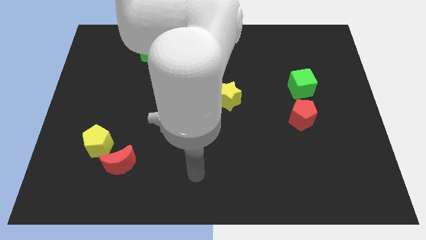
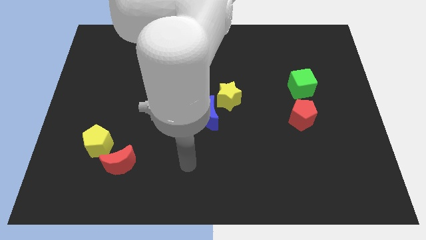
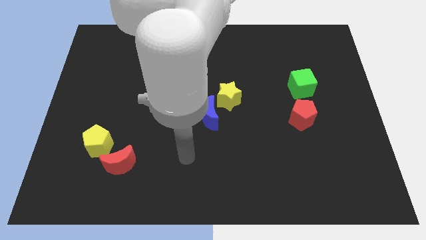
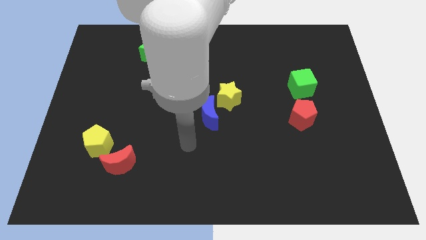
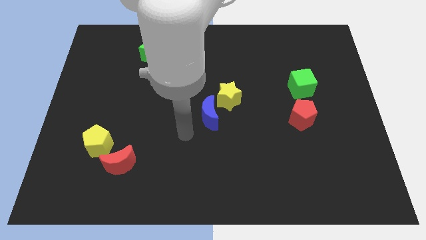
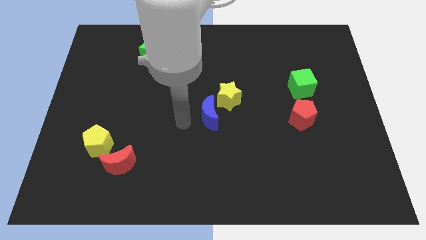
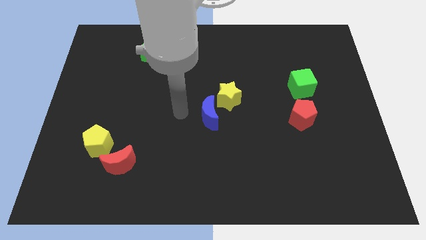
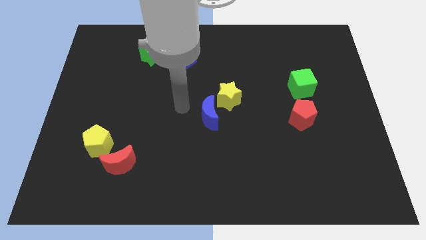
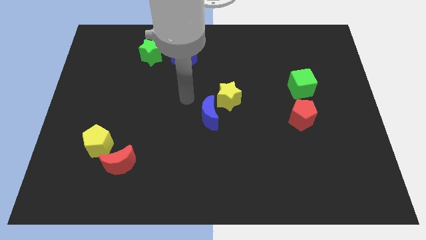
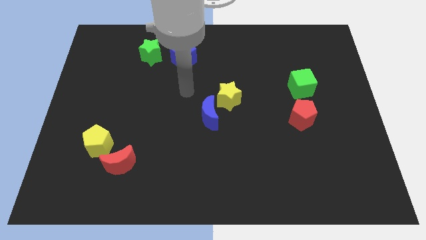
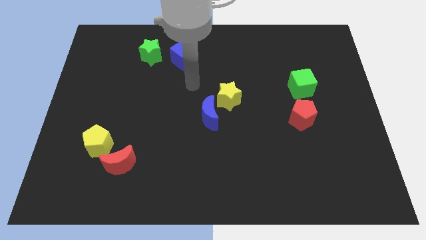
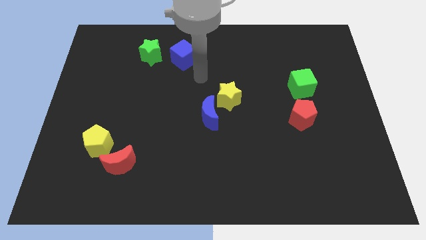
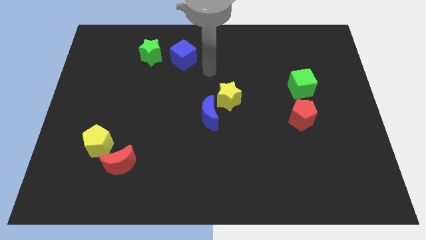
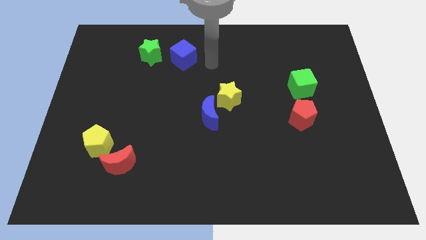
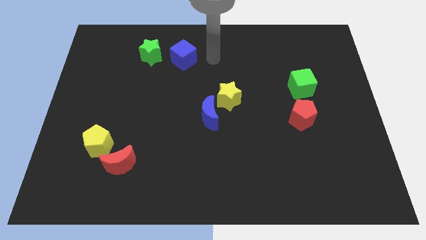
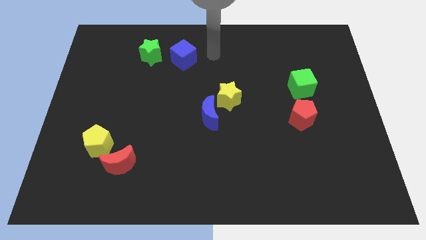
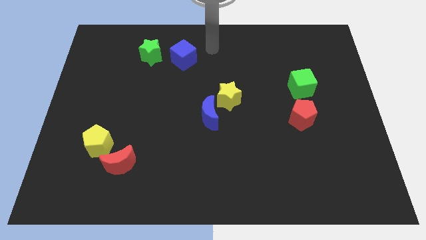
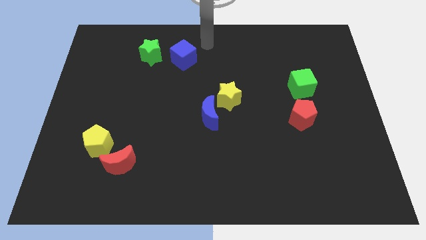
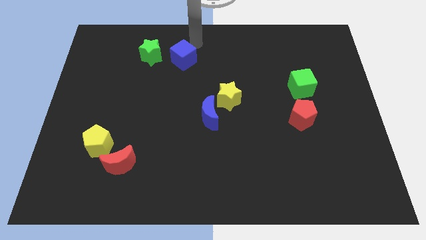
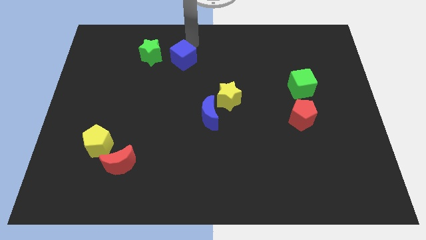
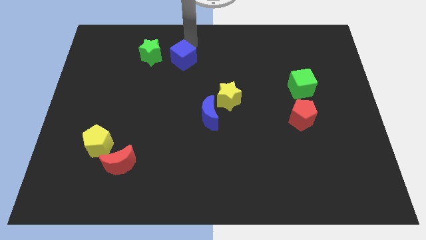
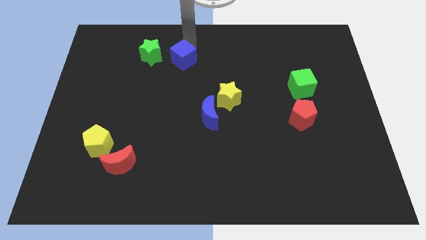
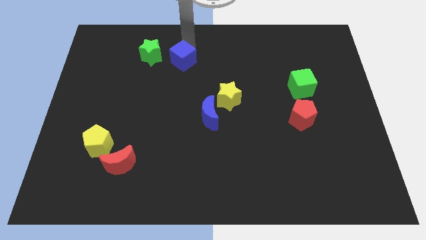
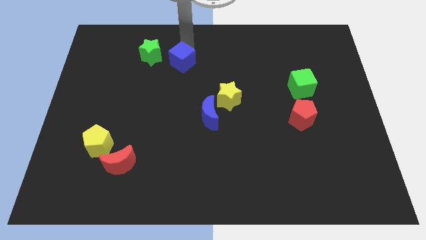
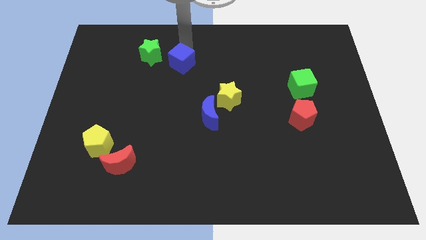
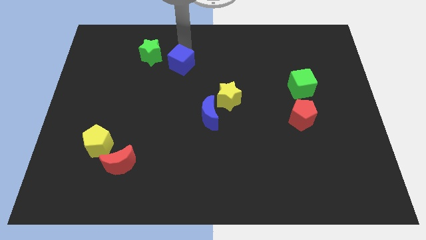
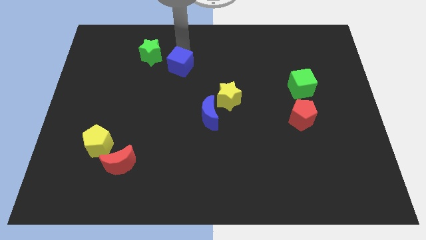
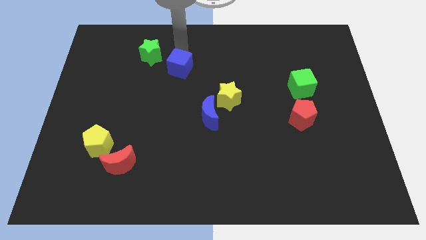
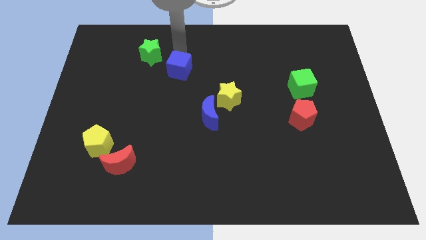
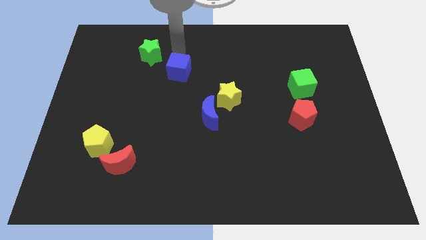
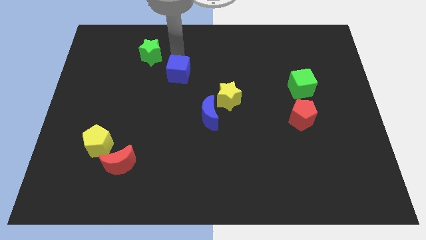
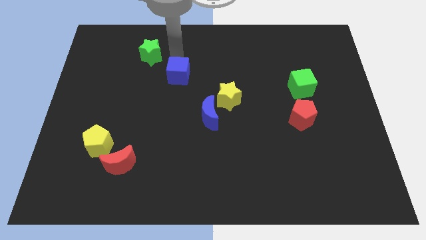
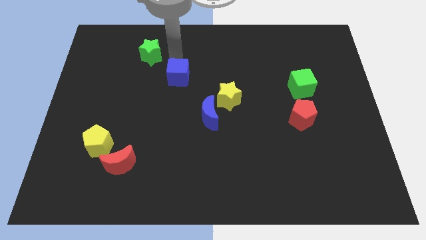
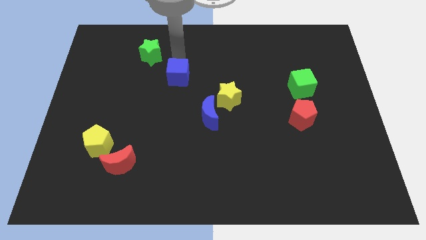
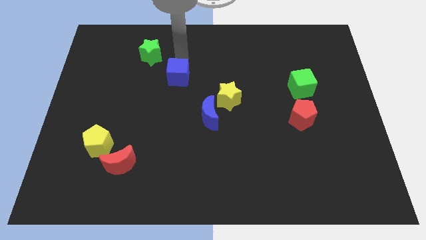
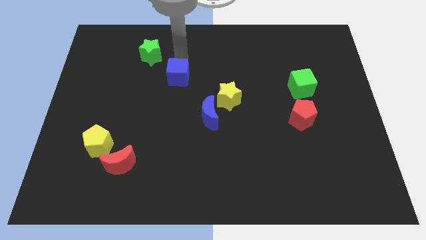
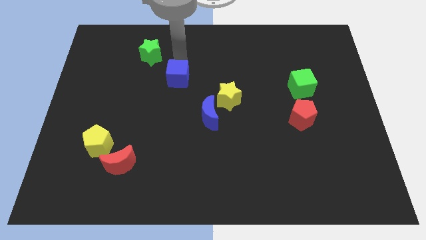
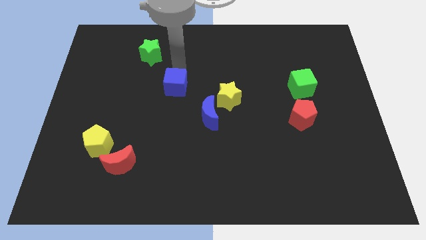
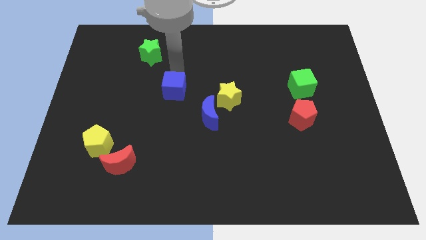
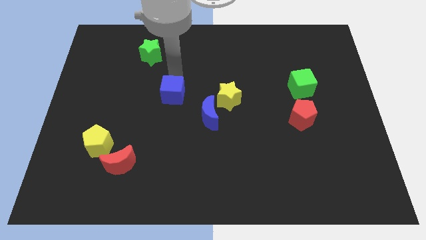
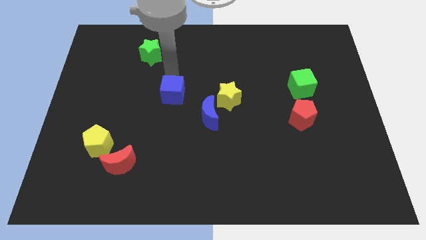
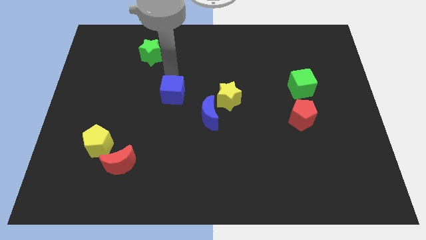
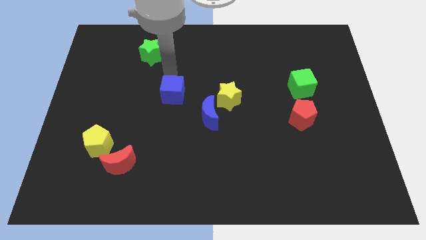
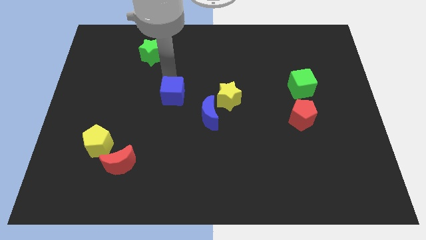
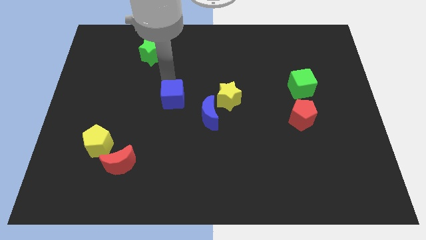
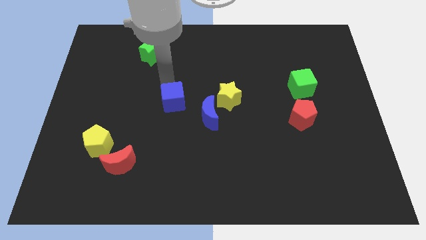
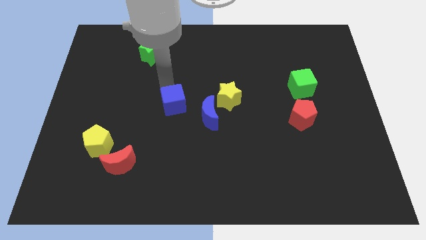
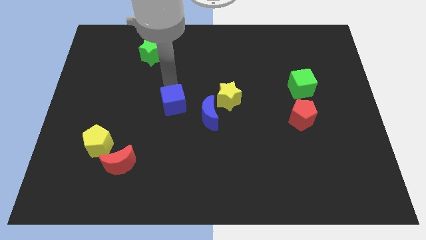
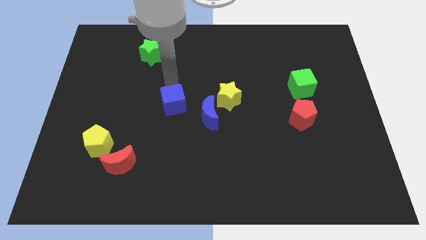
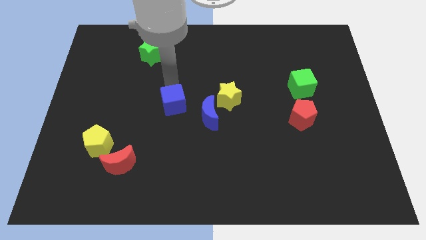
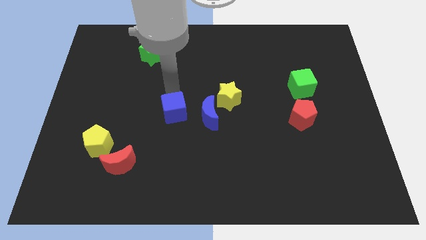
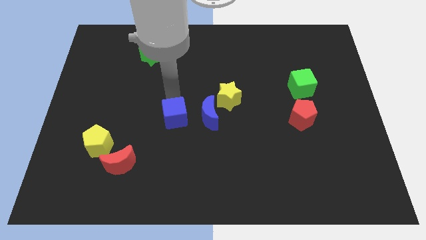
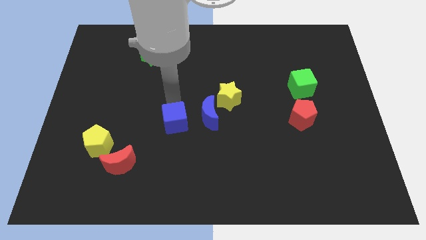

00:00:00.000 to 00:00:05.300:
move the blue cube down

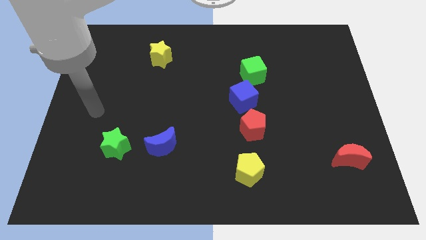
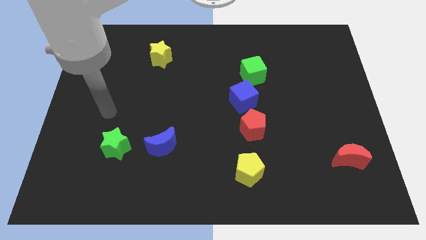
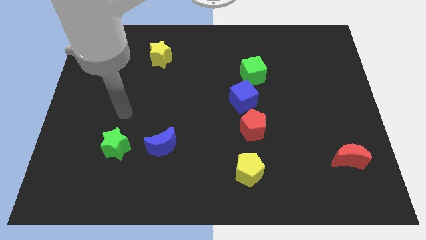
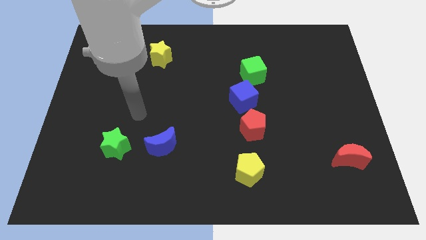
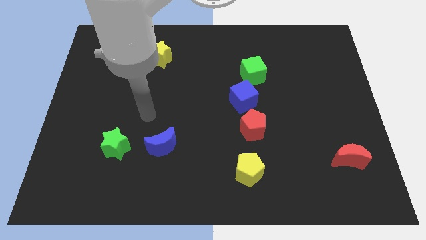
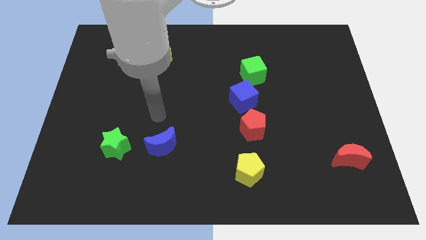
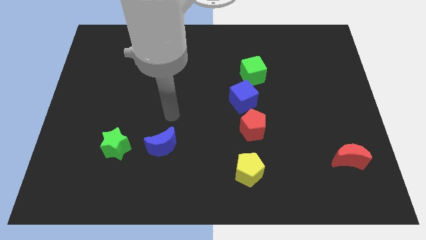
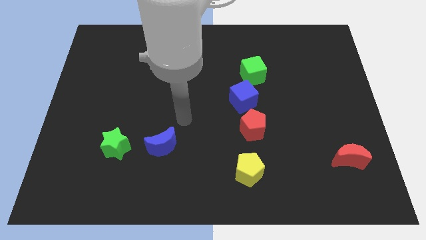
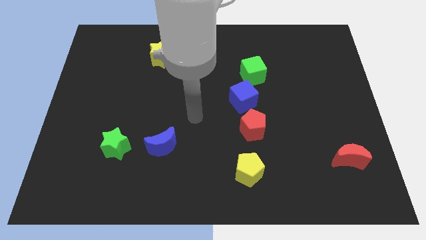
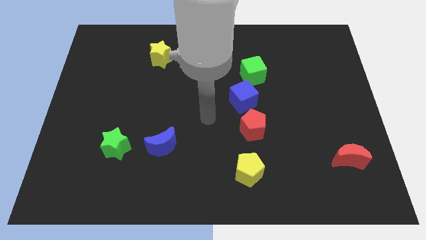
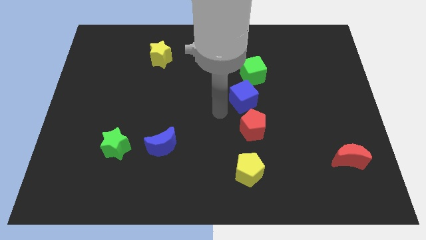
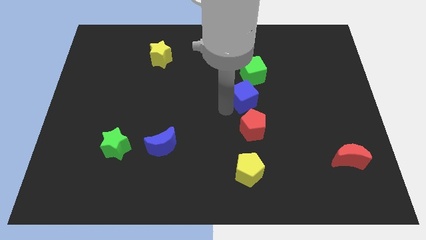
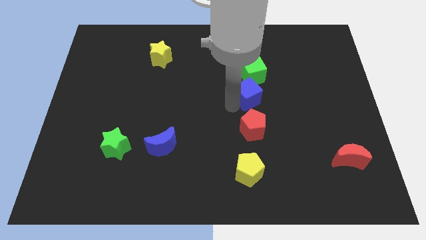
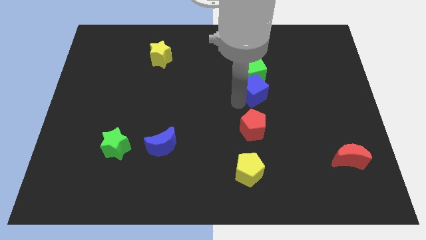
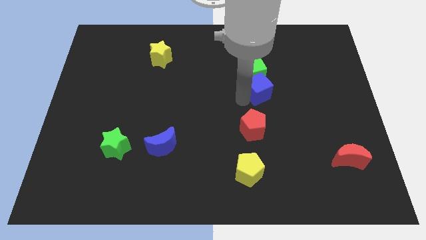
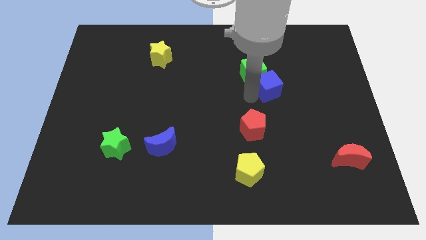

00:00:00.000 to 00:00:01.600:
slide the blue cube up and then right a bit

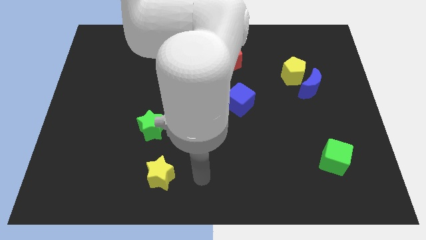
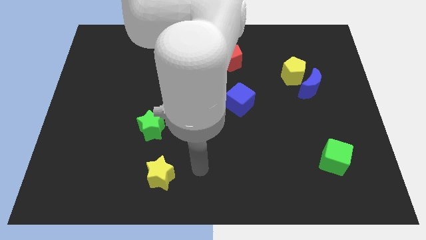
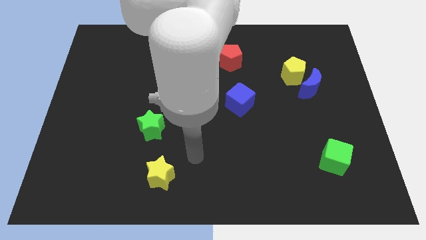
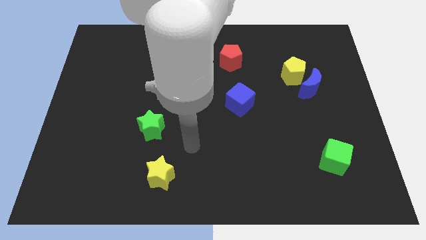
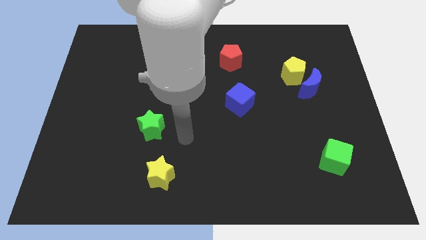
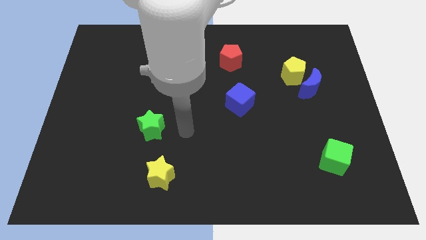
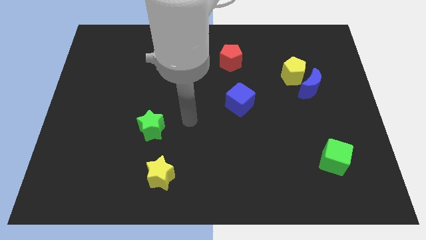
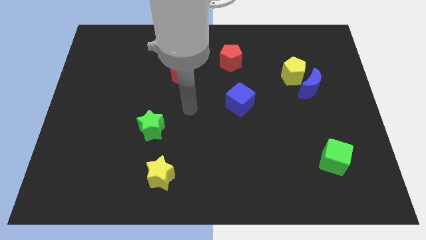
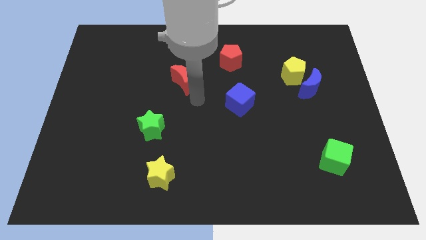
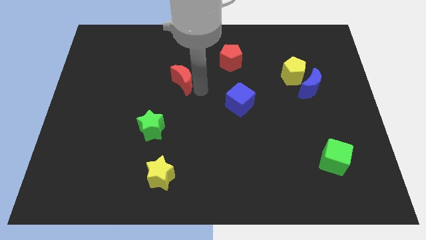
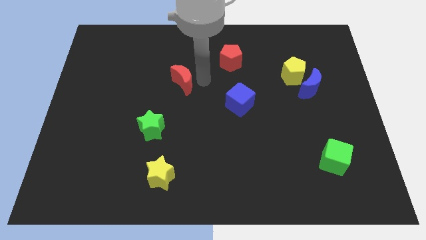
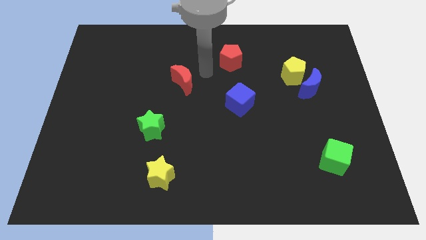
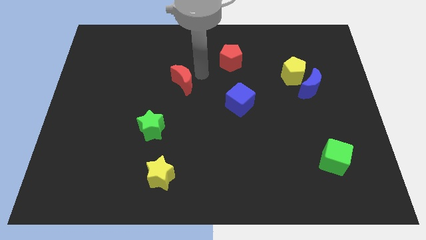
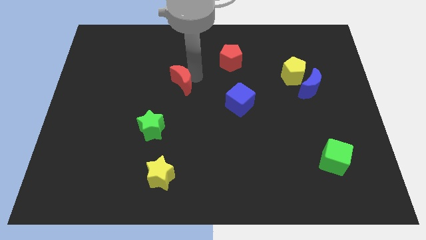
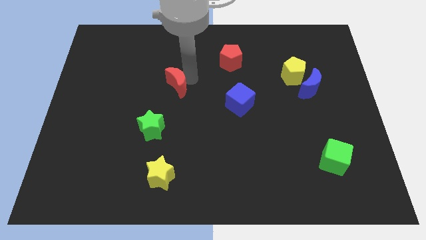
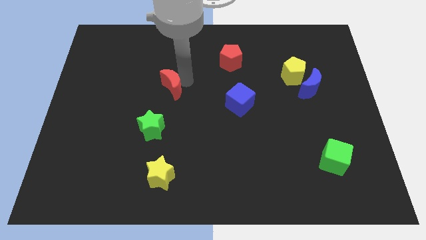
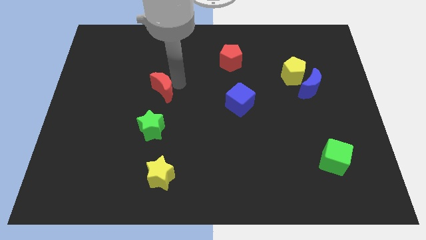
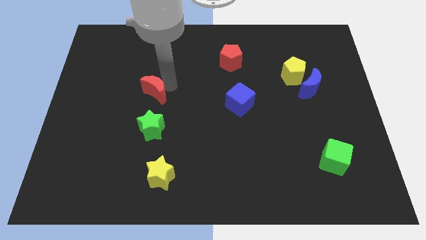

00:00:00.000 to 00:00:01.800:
move the red moon down and then left somewhat
